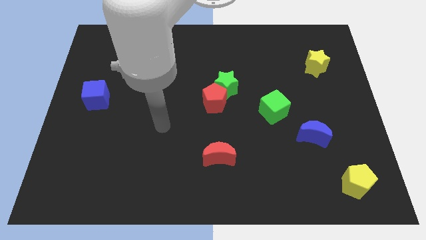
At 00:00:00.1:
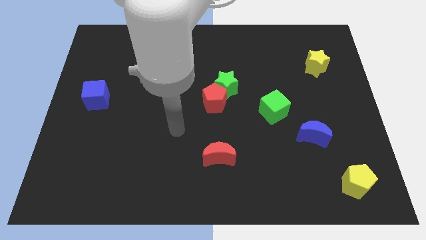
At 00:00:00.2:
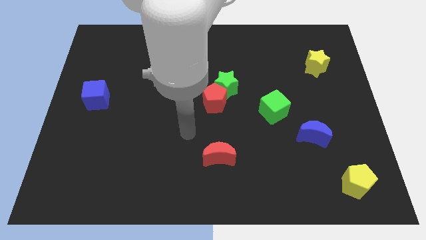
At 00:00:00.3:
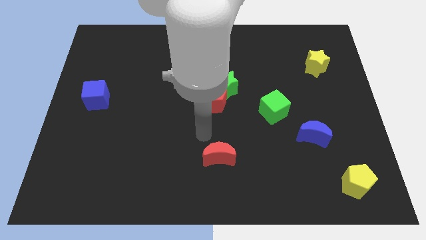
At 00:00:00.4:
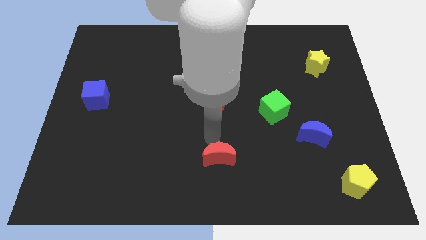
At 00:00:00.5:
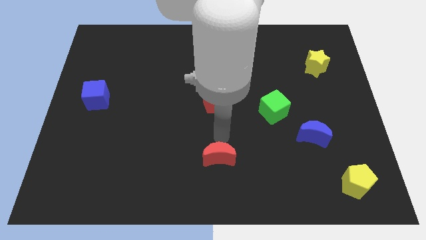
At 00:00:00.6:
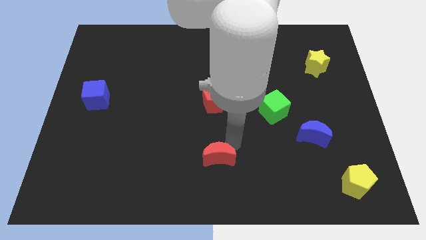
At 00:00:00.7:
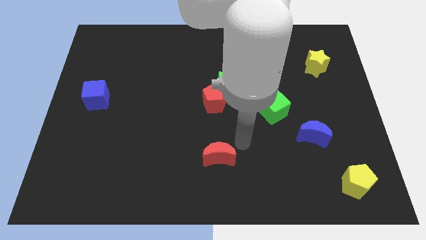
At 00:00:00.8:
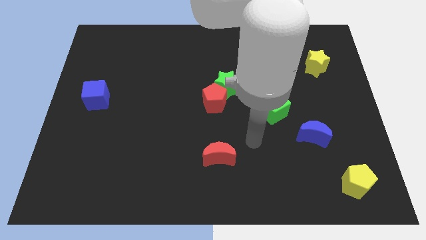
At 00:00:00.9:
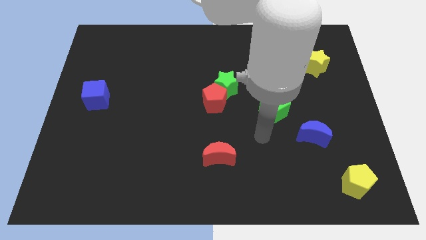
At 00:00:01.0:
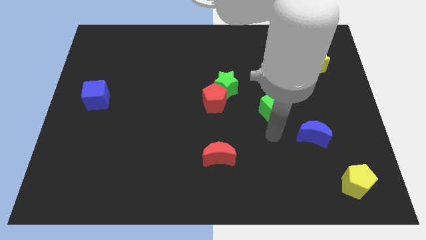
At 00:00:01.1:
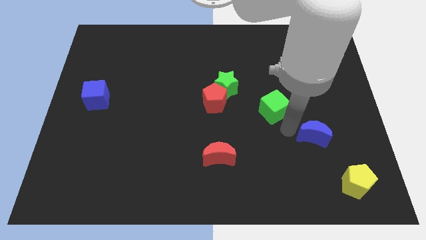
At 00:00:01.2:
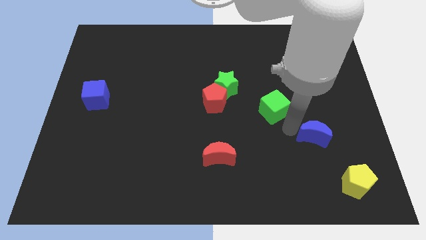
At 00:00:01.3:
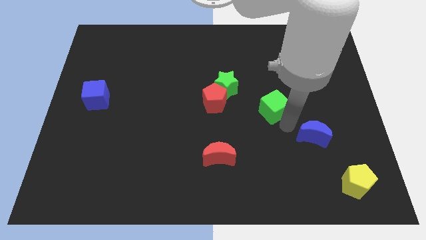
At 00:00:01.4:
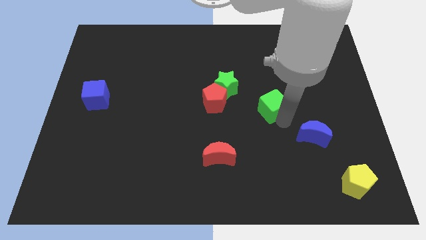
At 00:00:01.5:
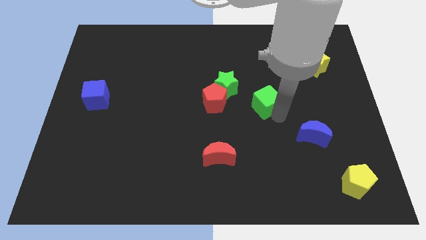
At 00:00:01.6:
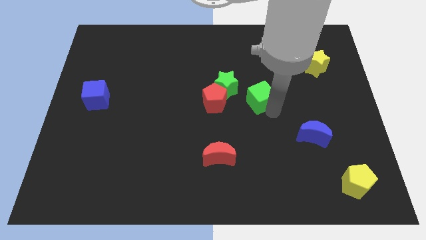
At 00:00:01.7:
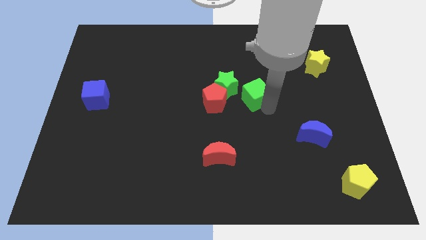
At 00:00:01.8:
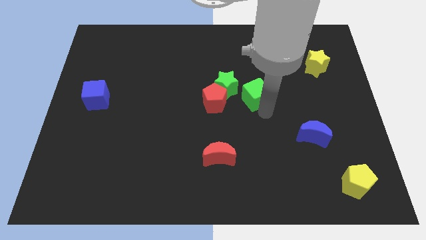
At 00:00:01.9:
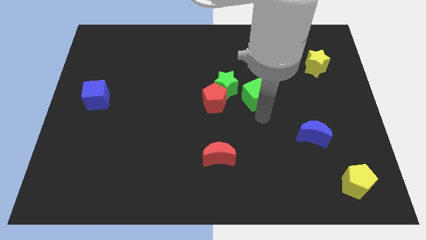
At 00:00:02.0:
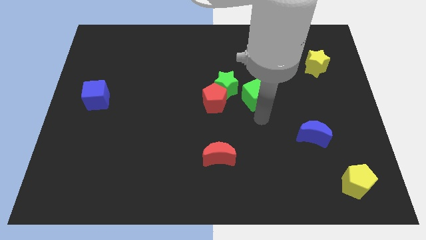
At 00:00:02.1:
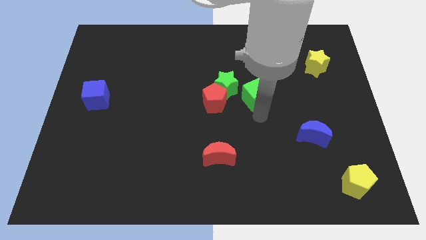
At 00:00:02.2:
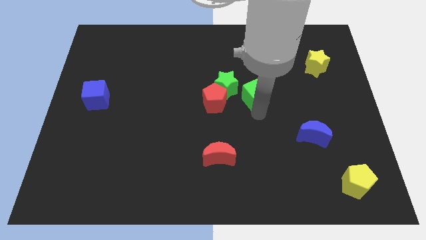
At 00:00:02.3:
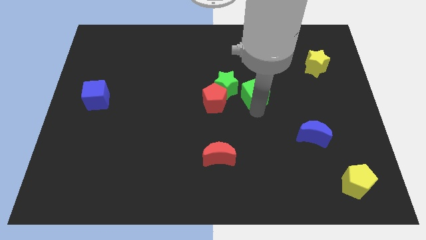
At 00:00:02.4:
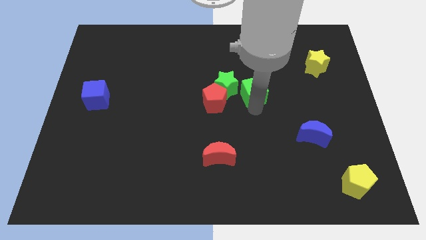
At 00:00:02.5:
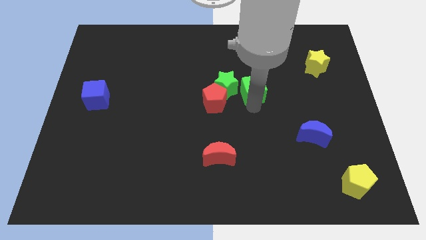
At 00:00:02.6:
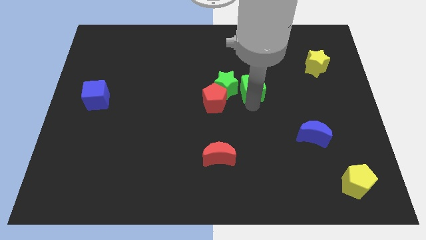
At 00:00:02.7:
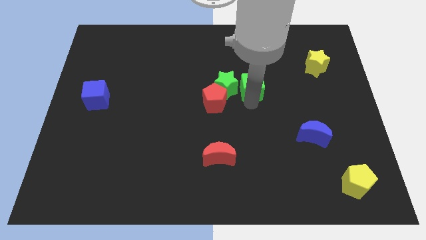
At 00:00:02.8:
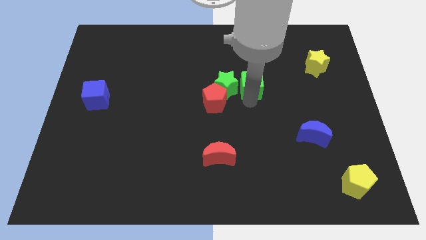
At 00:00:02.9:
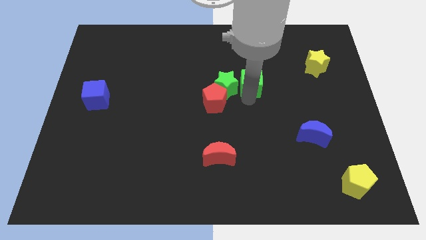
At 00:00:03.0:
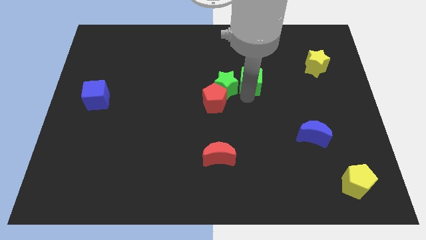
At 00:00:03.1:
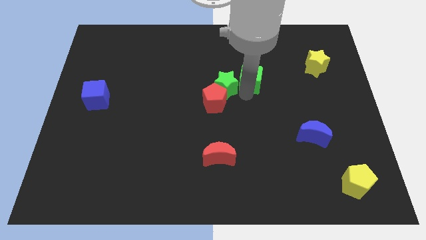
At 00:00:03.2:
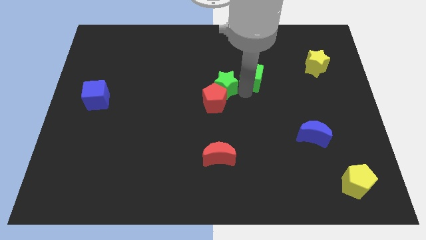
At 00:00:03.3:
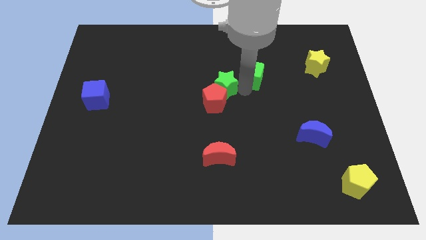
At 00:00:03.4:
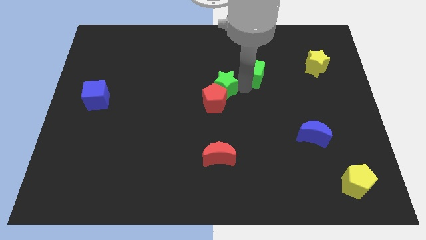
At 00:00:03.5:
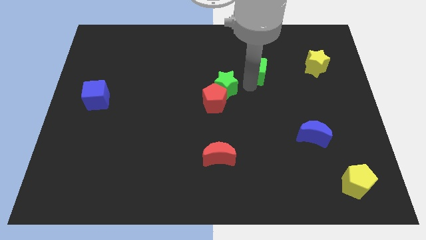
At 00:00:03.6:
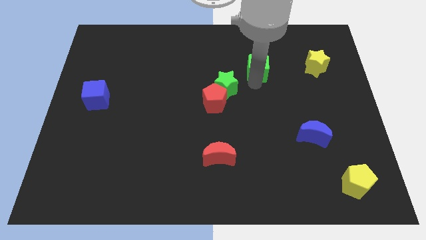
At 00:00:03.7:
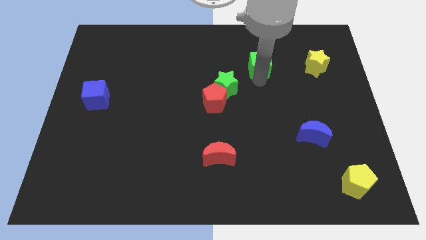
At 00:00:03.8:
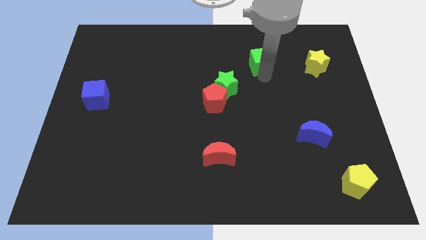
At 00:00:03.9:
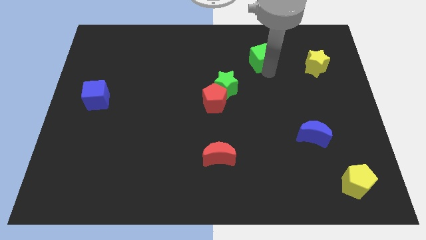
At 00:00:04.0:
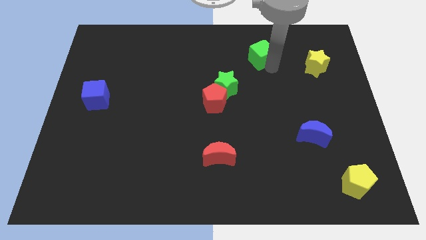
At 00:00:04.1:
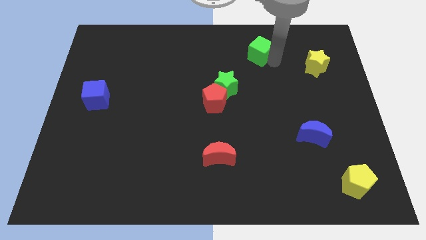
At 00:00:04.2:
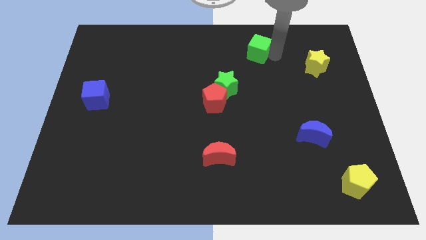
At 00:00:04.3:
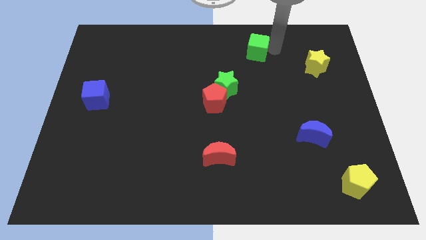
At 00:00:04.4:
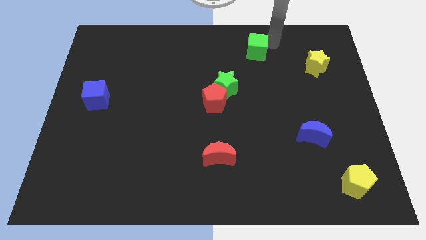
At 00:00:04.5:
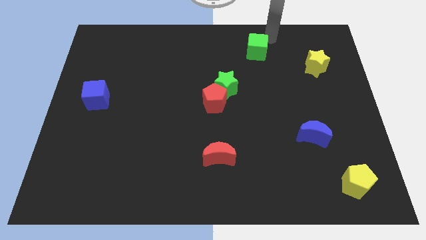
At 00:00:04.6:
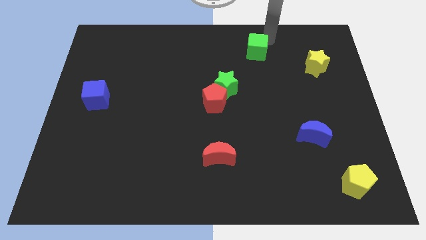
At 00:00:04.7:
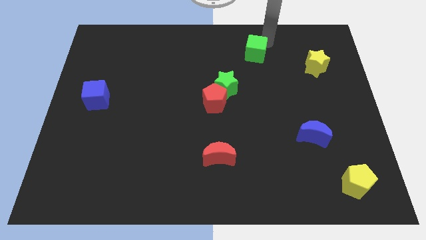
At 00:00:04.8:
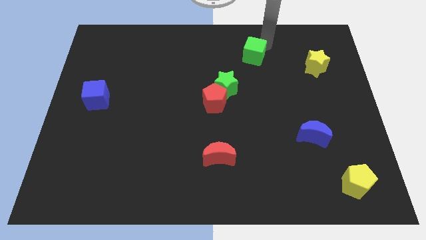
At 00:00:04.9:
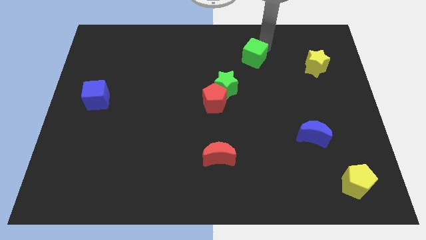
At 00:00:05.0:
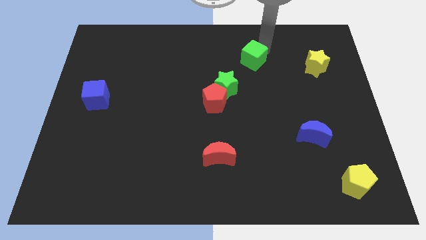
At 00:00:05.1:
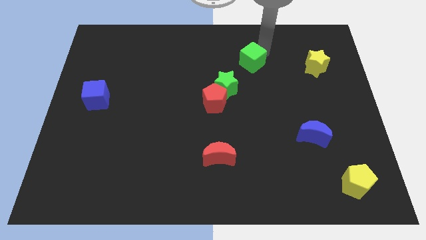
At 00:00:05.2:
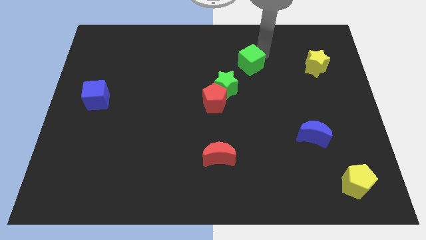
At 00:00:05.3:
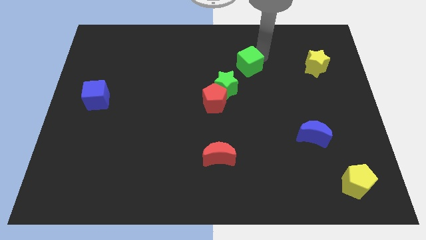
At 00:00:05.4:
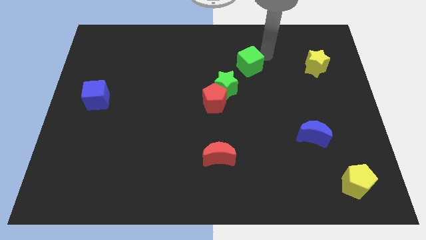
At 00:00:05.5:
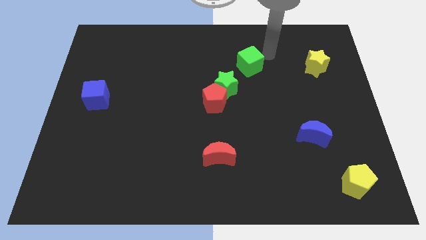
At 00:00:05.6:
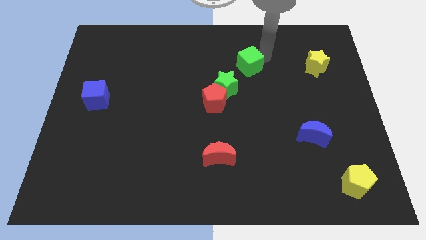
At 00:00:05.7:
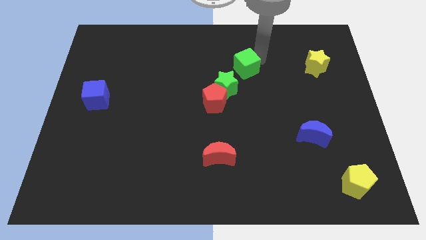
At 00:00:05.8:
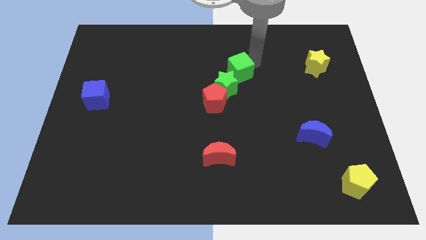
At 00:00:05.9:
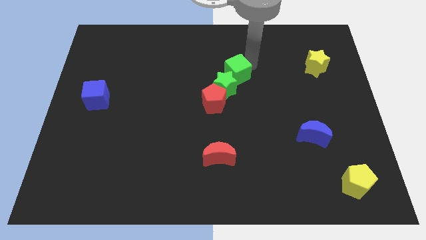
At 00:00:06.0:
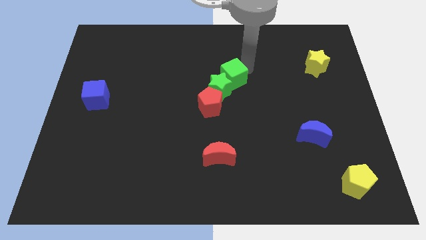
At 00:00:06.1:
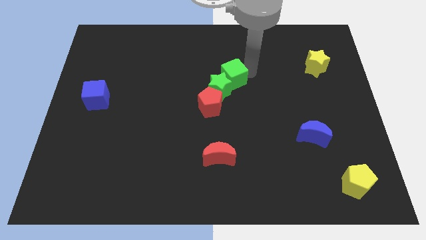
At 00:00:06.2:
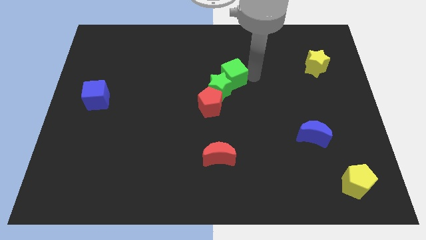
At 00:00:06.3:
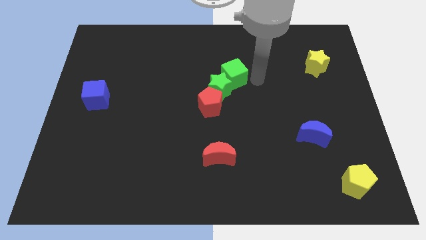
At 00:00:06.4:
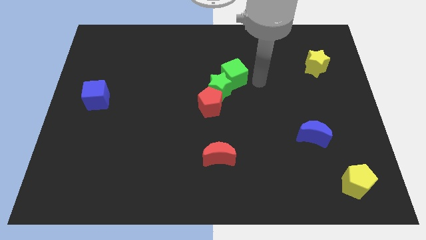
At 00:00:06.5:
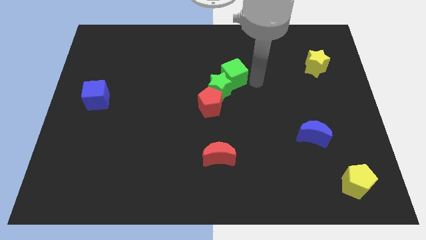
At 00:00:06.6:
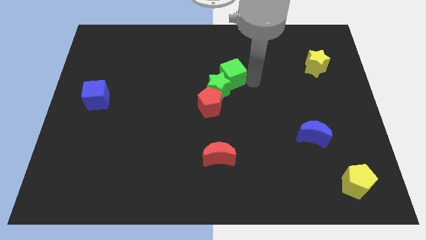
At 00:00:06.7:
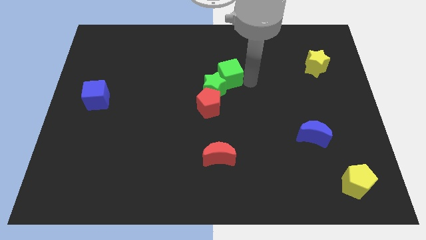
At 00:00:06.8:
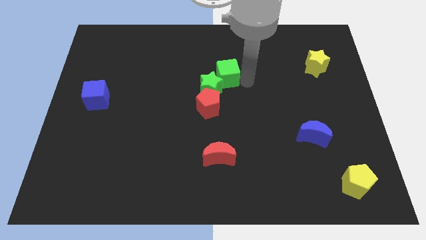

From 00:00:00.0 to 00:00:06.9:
move the green cube to the top side of the red pentagon
